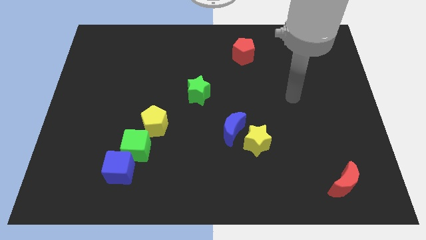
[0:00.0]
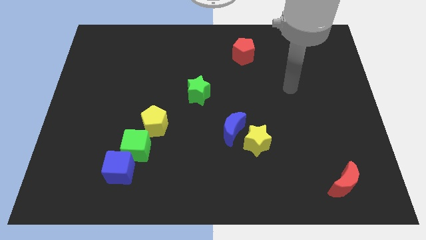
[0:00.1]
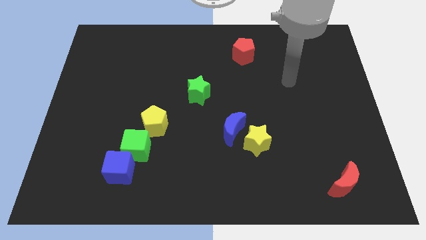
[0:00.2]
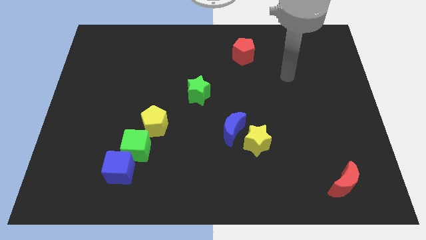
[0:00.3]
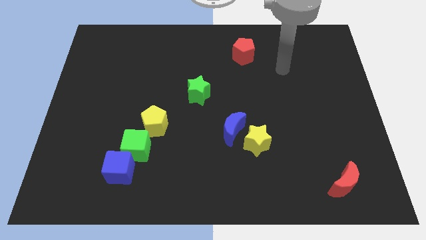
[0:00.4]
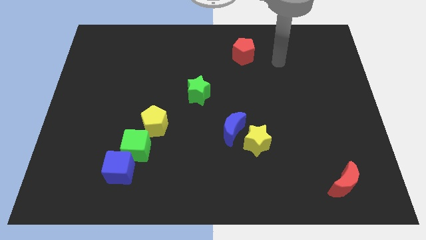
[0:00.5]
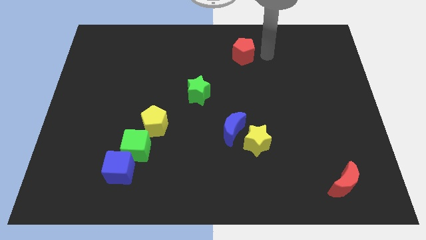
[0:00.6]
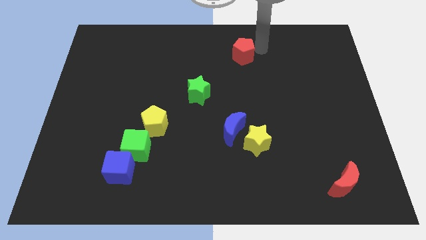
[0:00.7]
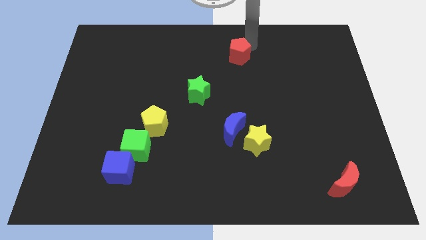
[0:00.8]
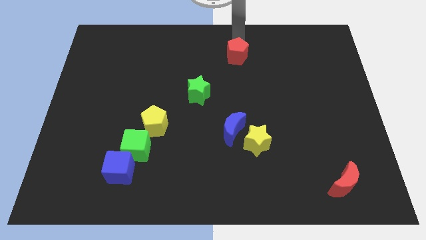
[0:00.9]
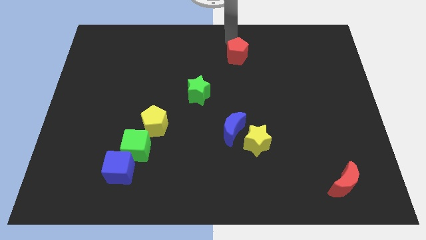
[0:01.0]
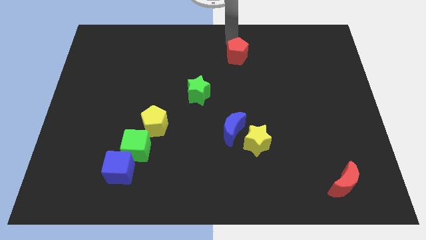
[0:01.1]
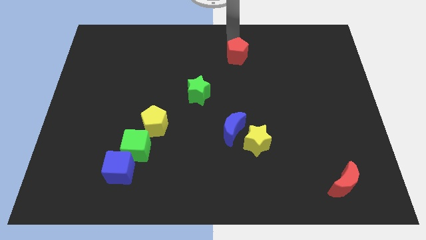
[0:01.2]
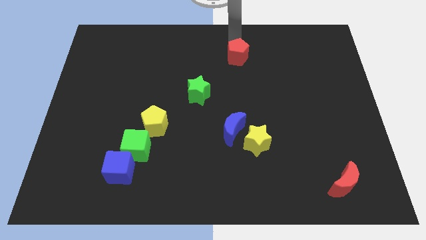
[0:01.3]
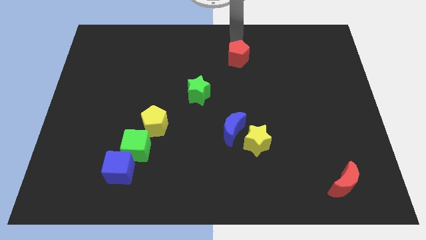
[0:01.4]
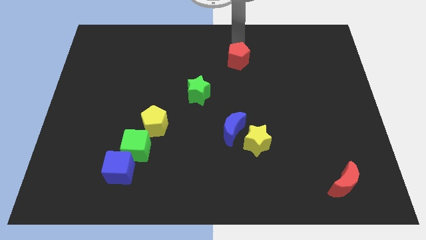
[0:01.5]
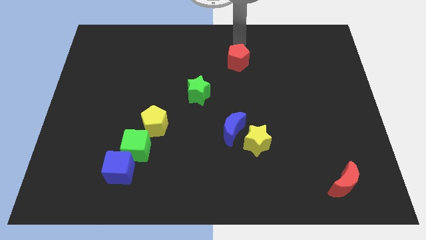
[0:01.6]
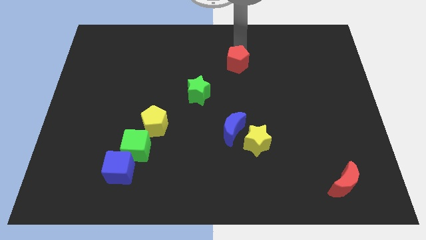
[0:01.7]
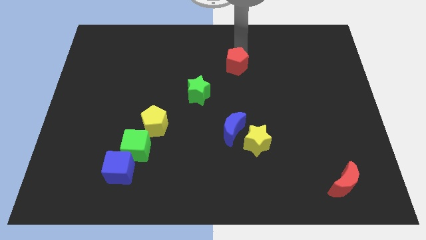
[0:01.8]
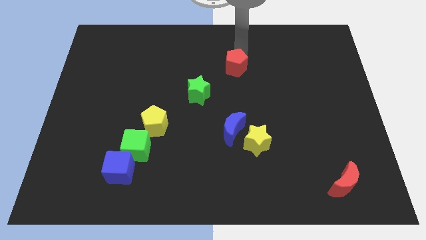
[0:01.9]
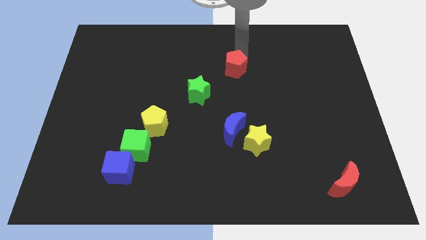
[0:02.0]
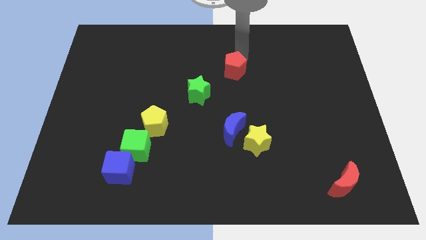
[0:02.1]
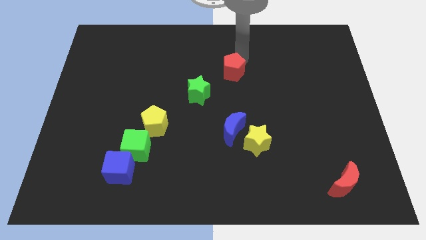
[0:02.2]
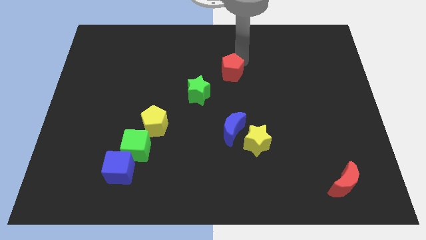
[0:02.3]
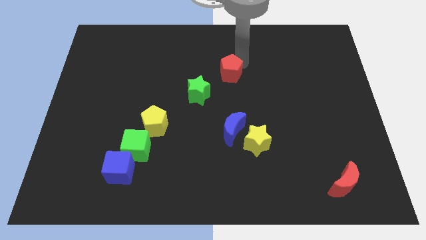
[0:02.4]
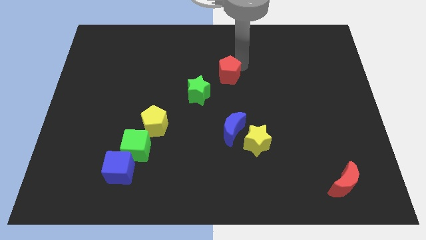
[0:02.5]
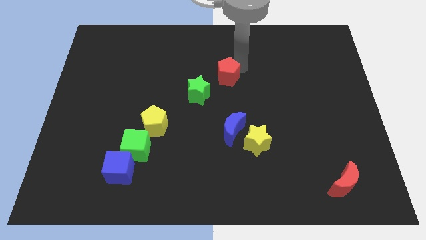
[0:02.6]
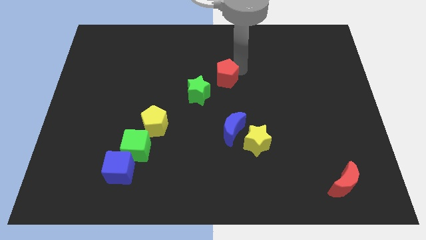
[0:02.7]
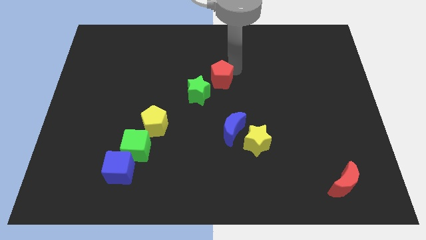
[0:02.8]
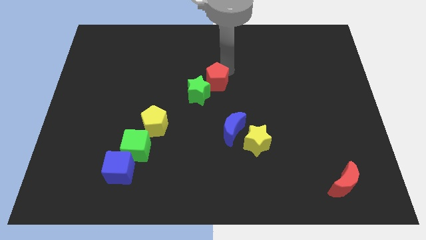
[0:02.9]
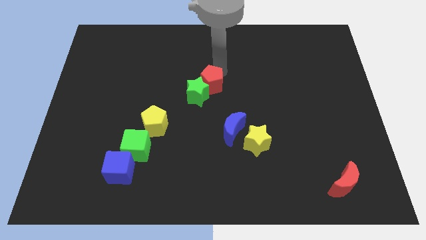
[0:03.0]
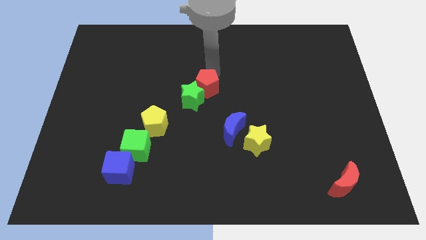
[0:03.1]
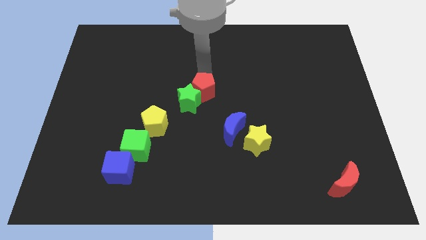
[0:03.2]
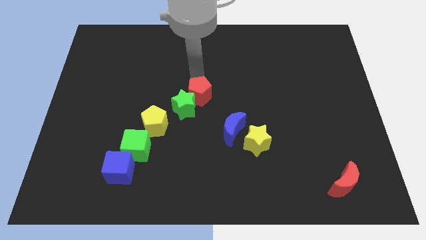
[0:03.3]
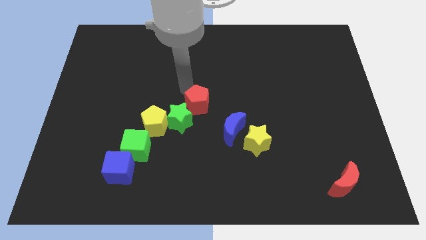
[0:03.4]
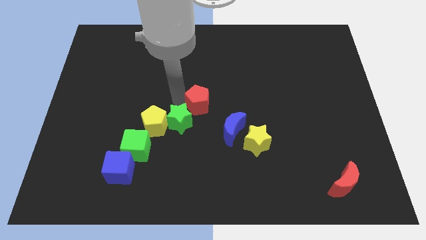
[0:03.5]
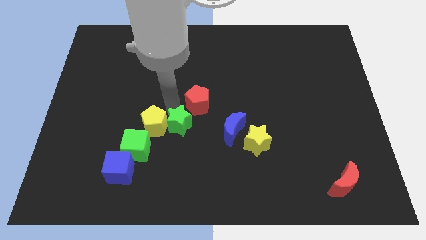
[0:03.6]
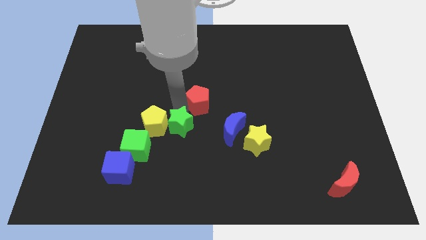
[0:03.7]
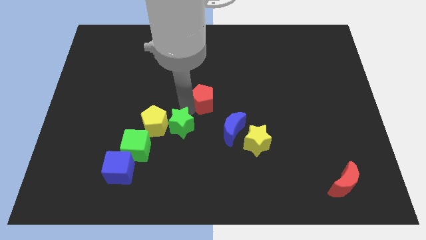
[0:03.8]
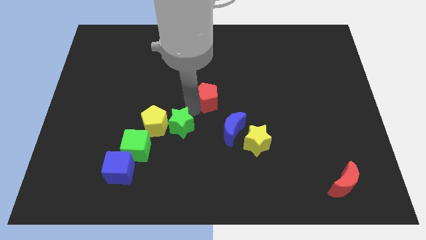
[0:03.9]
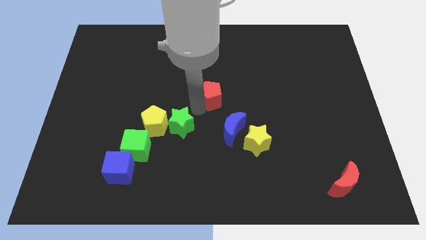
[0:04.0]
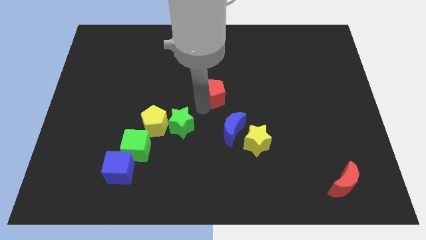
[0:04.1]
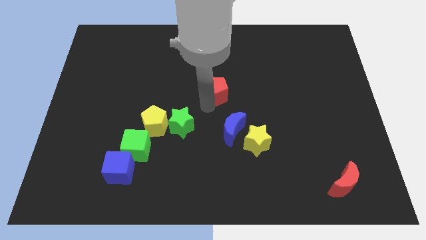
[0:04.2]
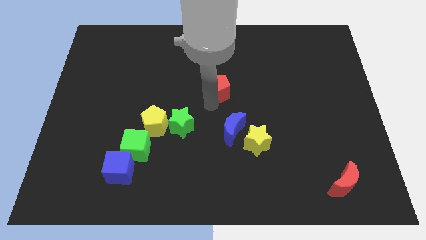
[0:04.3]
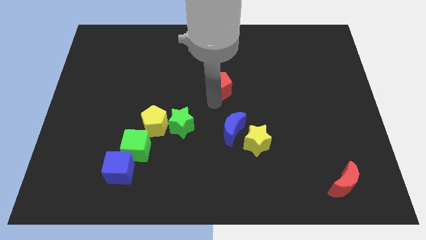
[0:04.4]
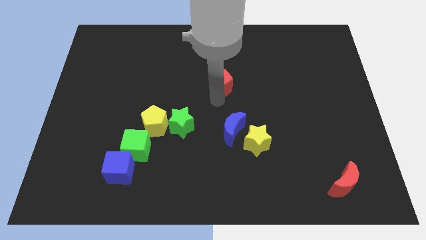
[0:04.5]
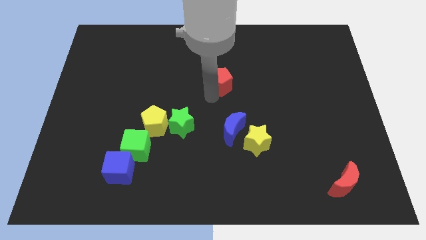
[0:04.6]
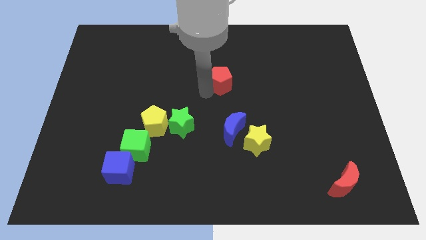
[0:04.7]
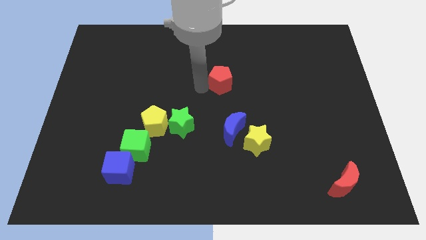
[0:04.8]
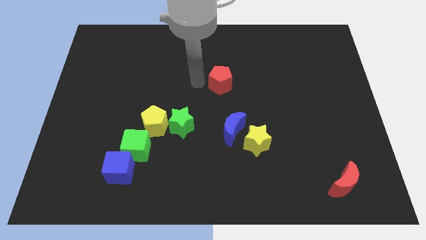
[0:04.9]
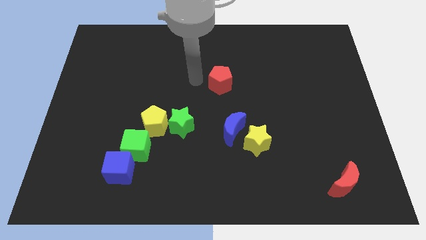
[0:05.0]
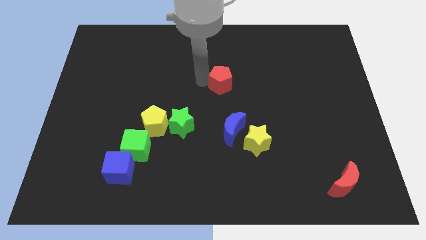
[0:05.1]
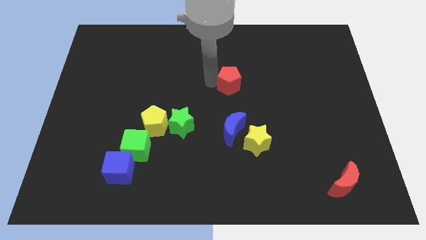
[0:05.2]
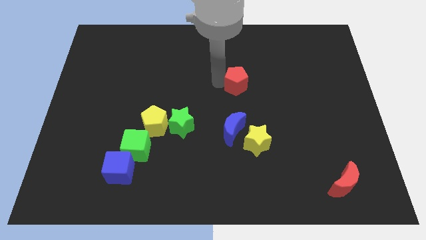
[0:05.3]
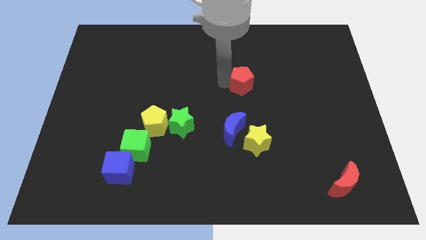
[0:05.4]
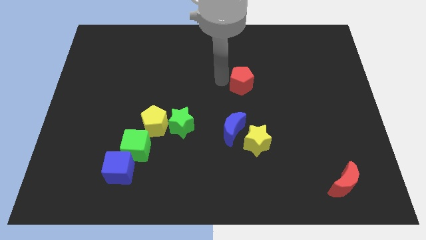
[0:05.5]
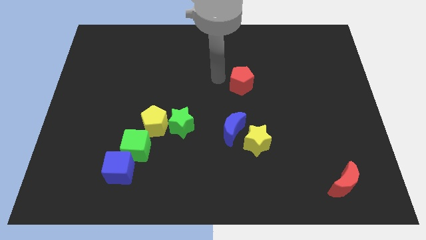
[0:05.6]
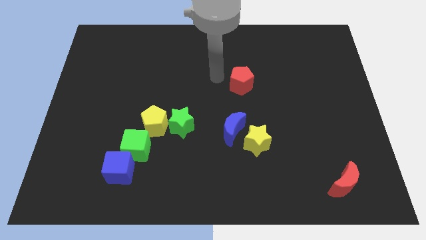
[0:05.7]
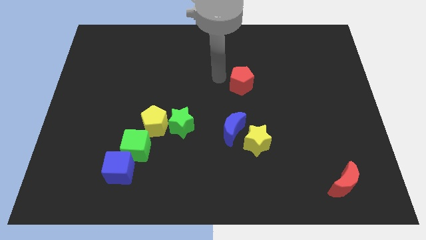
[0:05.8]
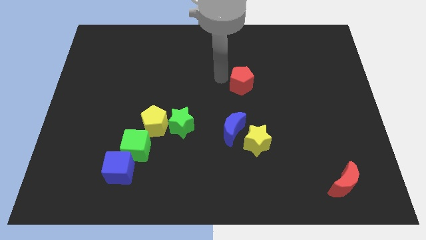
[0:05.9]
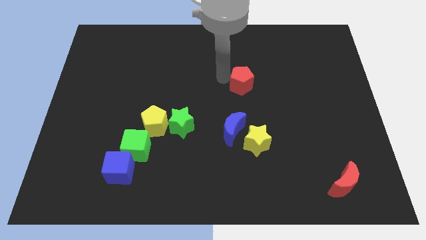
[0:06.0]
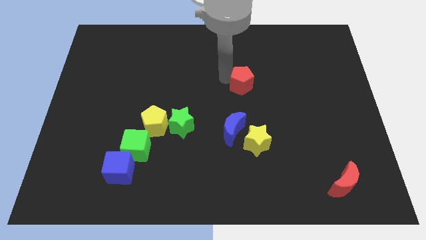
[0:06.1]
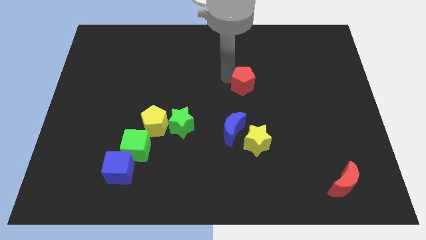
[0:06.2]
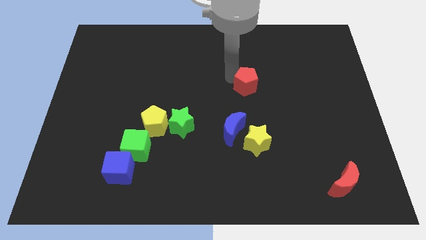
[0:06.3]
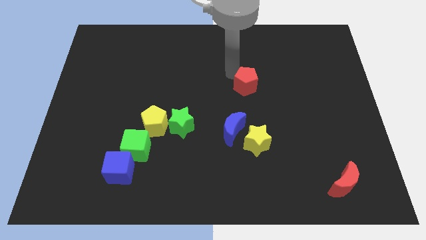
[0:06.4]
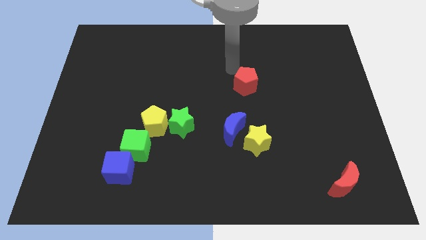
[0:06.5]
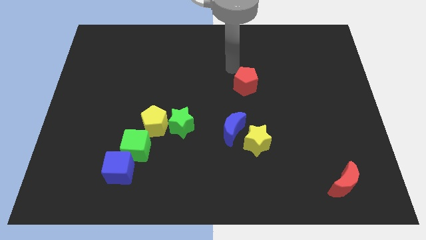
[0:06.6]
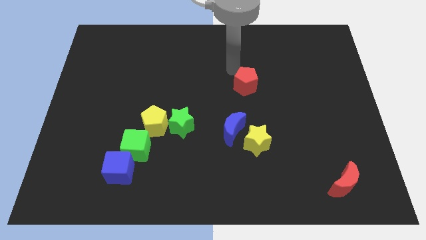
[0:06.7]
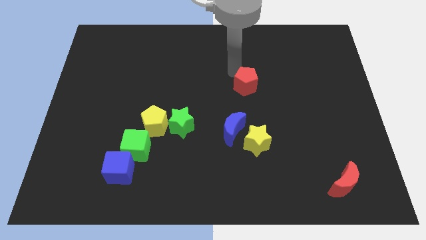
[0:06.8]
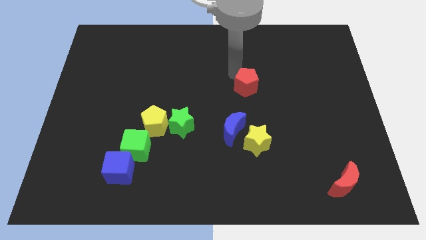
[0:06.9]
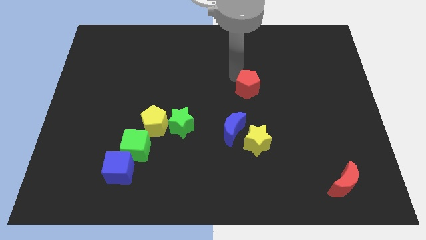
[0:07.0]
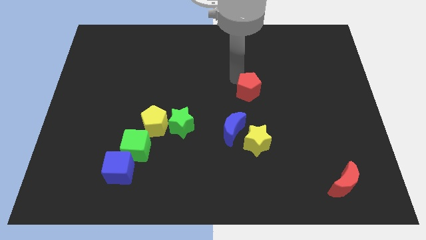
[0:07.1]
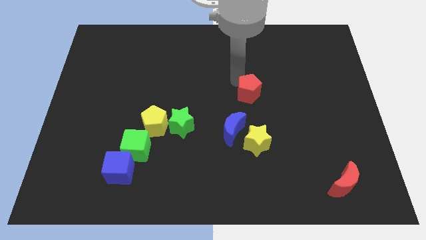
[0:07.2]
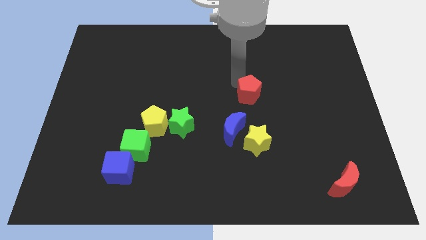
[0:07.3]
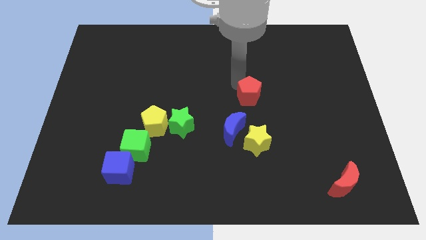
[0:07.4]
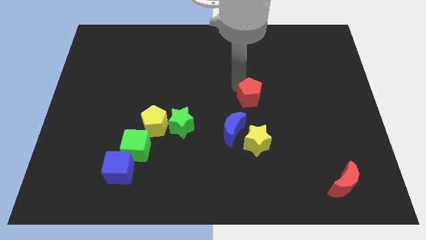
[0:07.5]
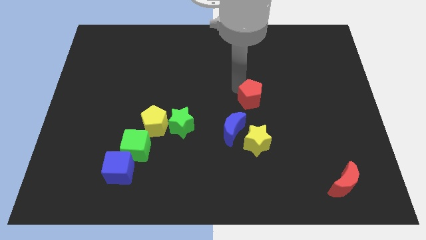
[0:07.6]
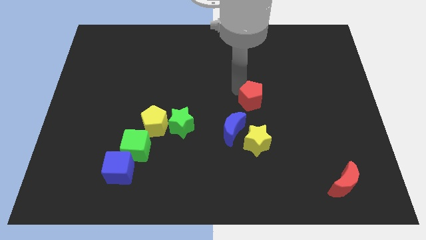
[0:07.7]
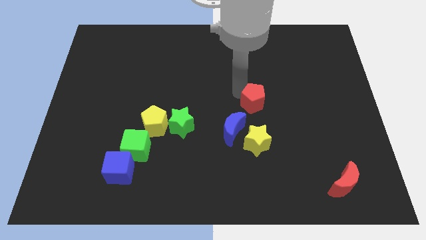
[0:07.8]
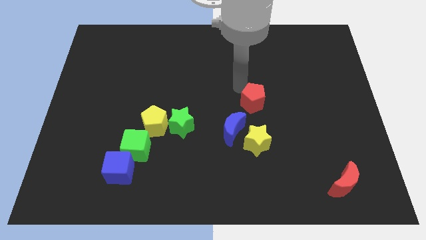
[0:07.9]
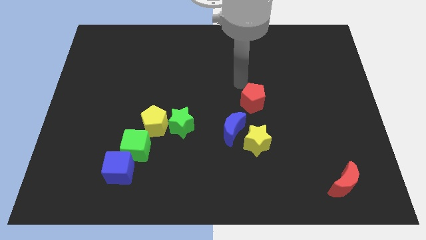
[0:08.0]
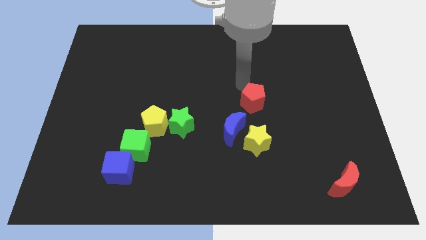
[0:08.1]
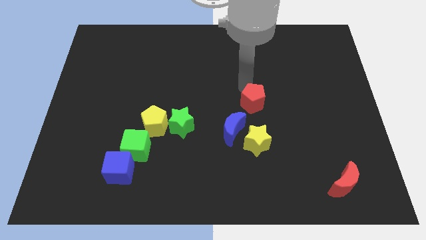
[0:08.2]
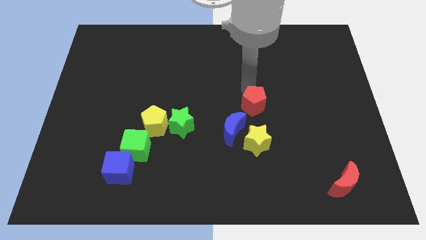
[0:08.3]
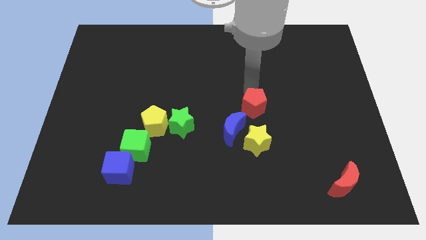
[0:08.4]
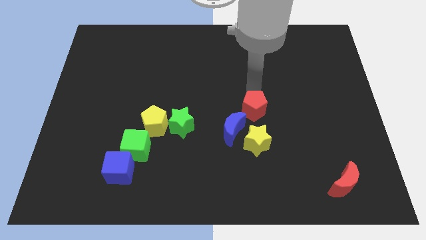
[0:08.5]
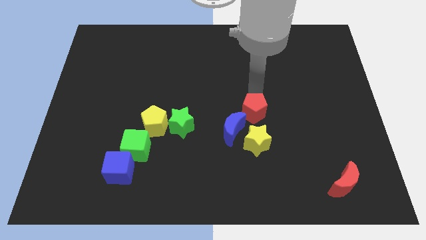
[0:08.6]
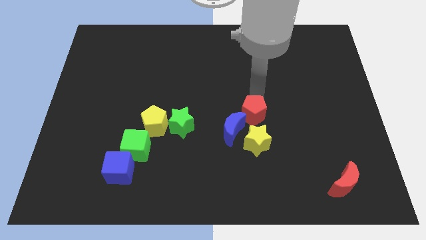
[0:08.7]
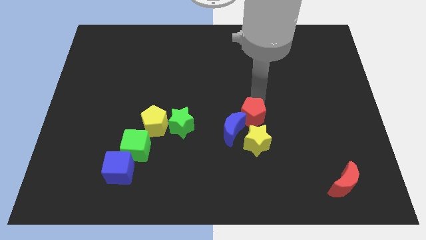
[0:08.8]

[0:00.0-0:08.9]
push the red pentagon down
